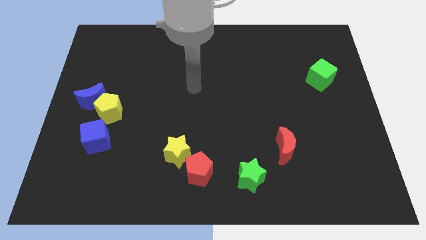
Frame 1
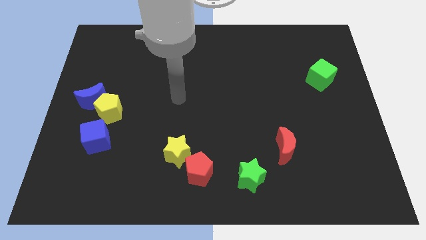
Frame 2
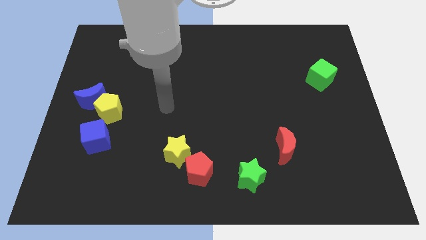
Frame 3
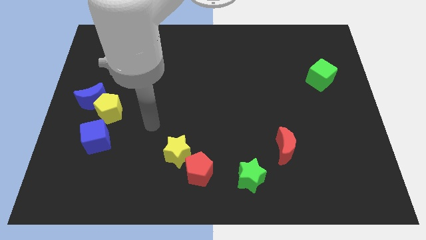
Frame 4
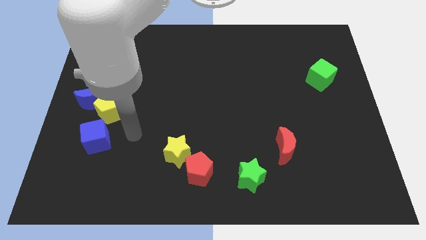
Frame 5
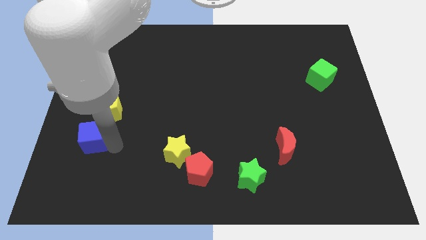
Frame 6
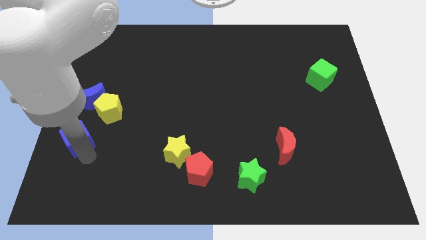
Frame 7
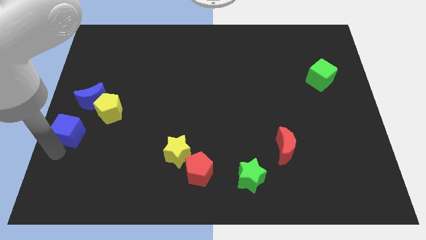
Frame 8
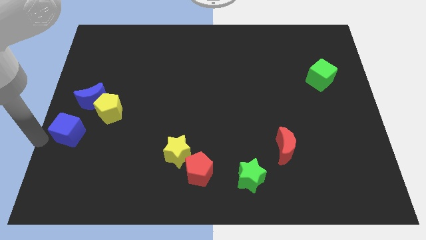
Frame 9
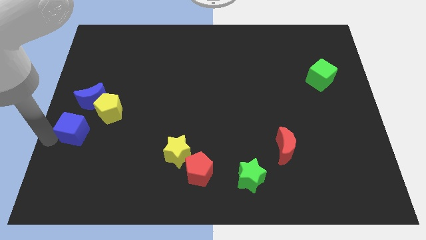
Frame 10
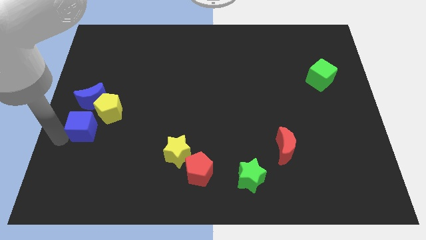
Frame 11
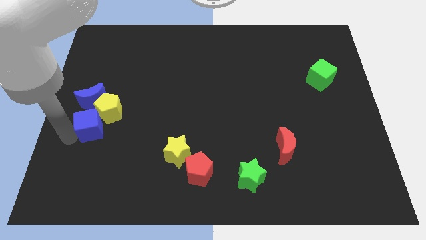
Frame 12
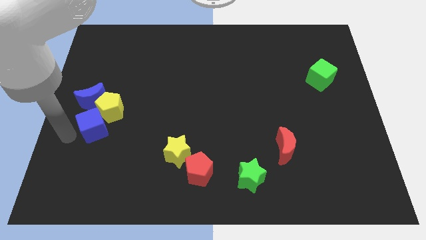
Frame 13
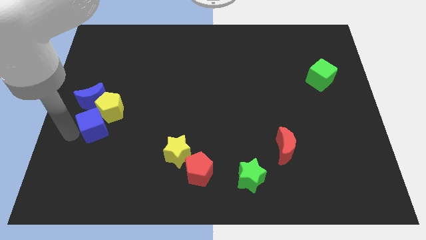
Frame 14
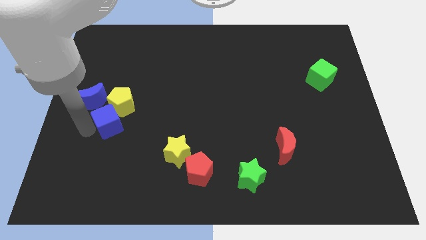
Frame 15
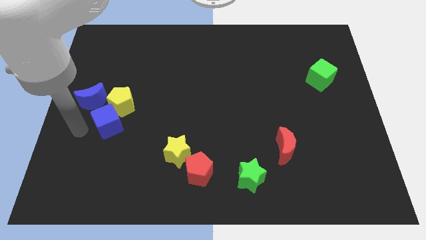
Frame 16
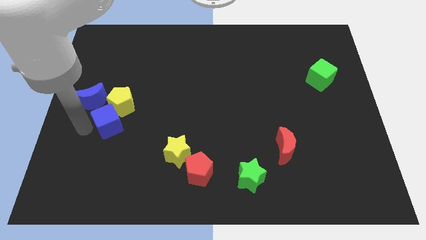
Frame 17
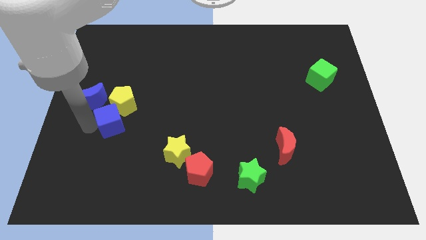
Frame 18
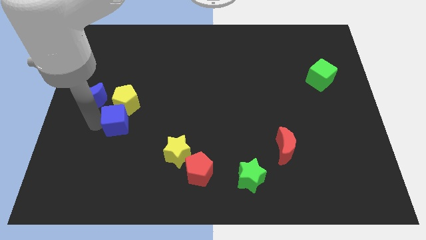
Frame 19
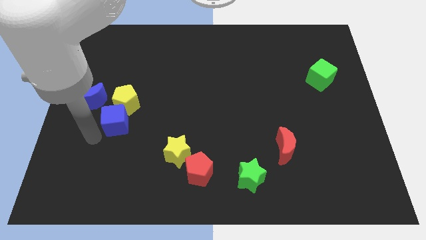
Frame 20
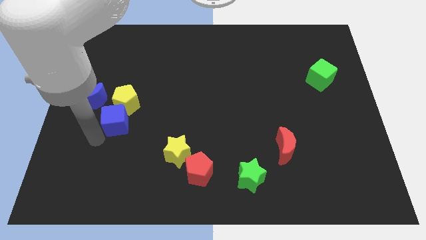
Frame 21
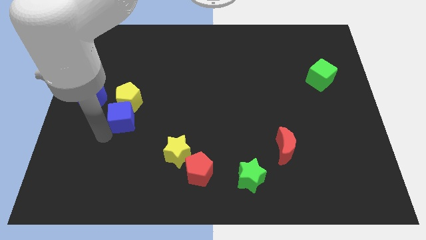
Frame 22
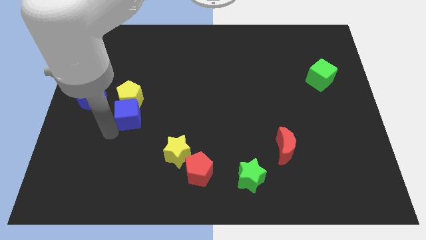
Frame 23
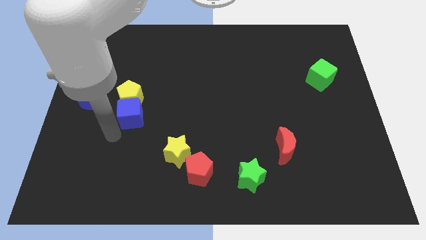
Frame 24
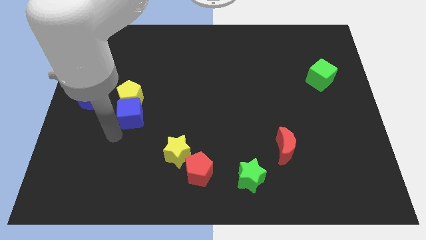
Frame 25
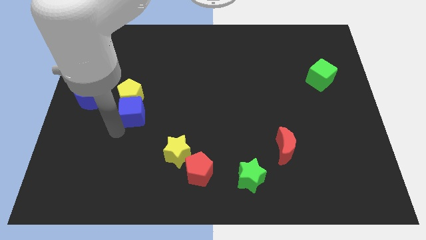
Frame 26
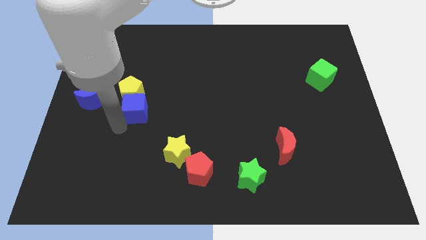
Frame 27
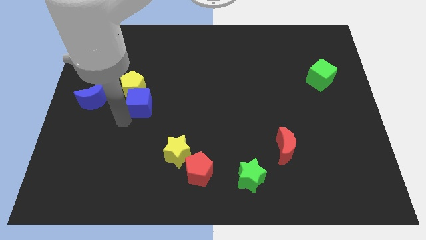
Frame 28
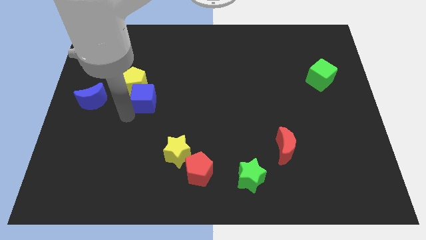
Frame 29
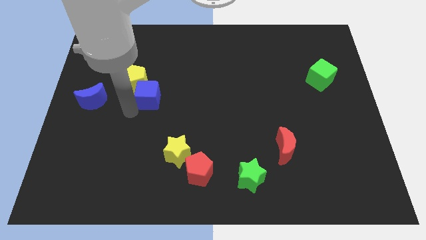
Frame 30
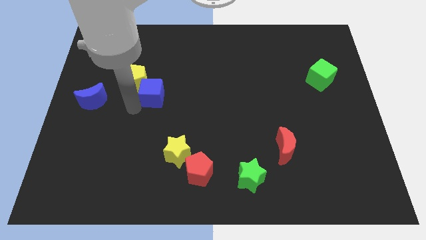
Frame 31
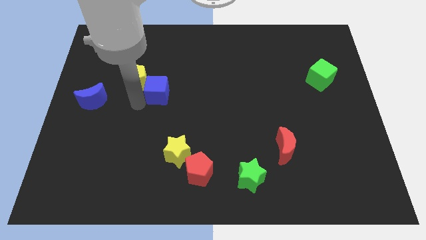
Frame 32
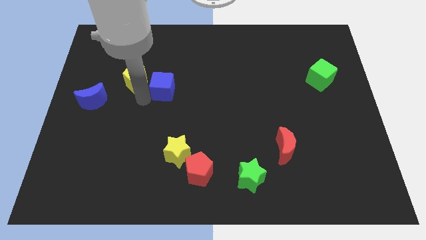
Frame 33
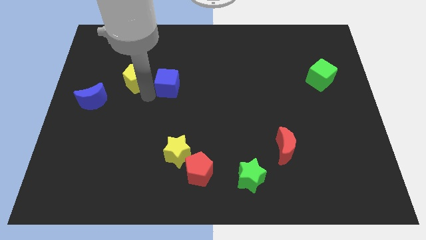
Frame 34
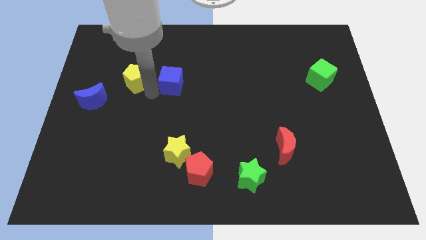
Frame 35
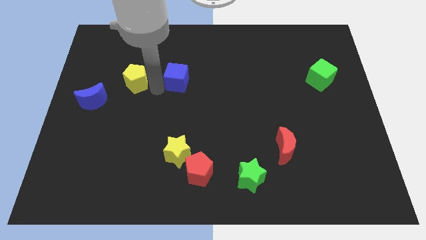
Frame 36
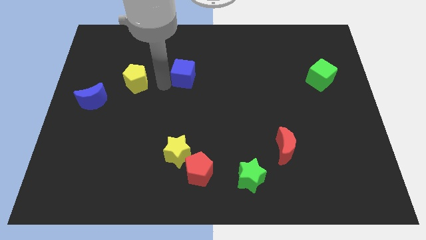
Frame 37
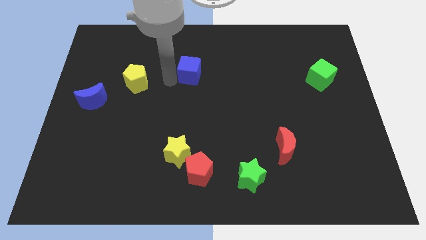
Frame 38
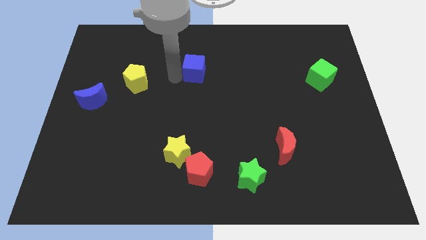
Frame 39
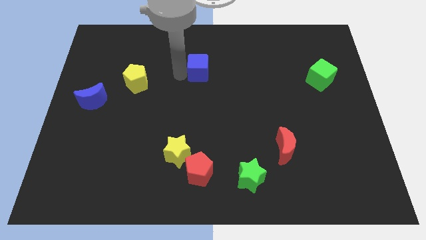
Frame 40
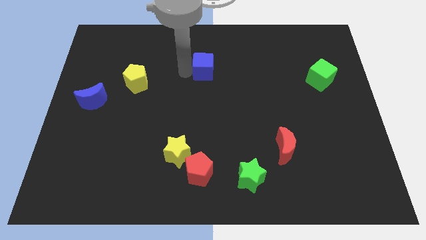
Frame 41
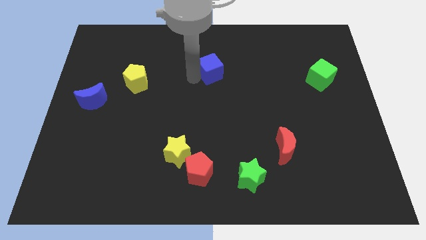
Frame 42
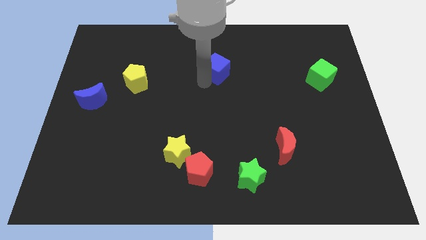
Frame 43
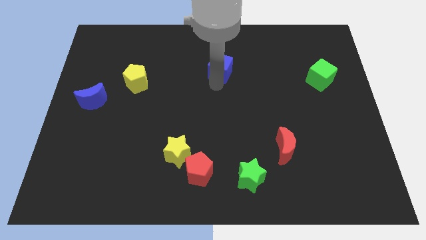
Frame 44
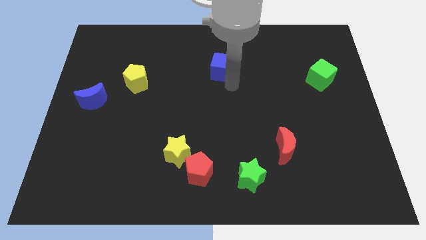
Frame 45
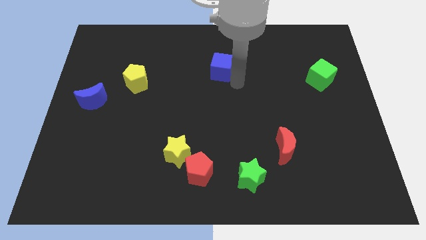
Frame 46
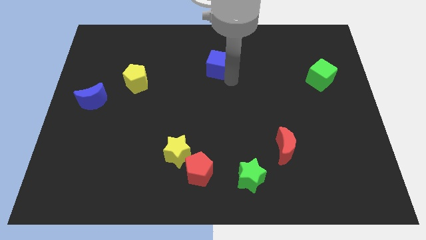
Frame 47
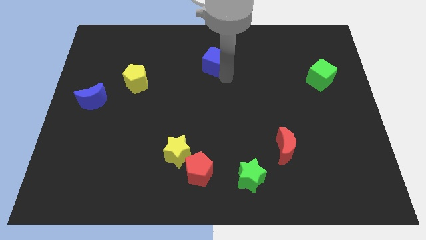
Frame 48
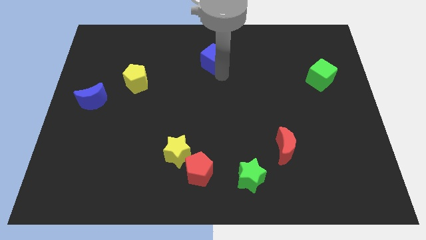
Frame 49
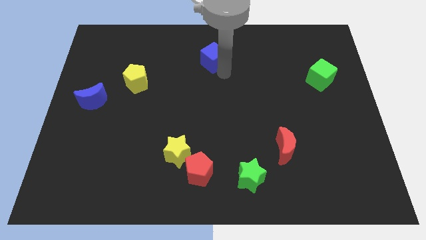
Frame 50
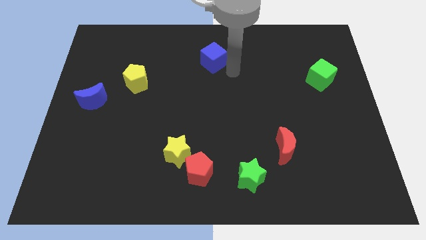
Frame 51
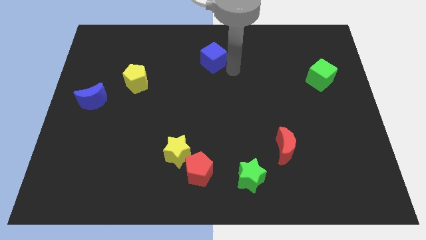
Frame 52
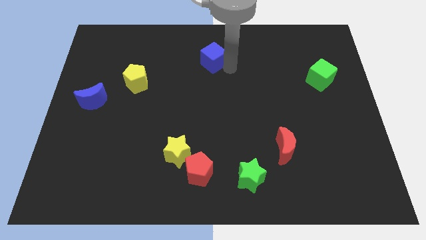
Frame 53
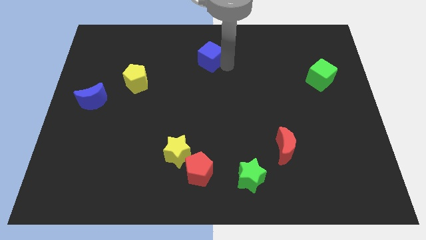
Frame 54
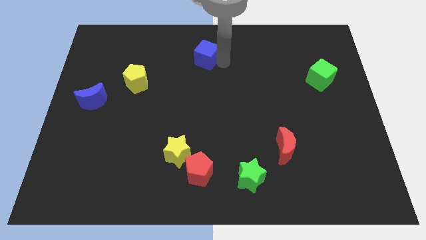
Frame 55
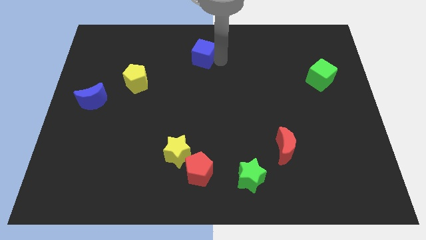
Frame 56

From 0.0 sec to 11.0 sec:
push the blue cube to the towards your base

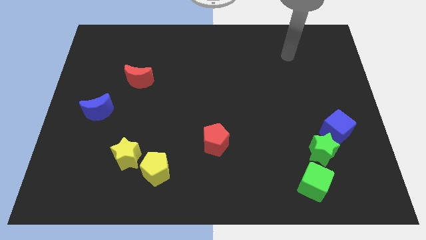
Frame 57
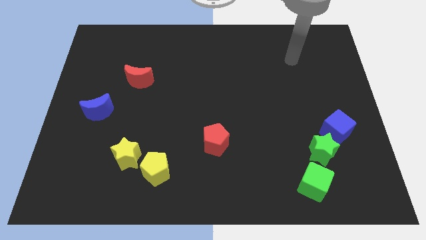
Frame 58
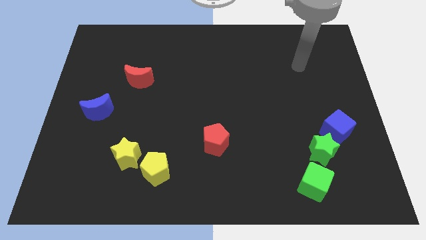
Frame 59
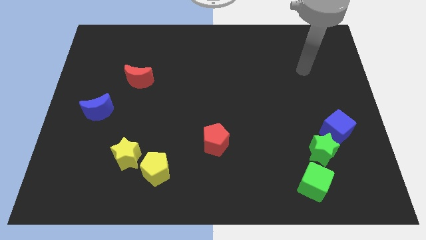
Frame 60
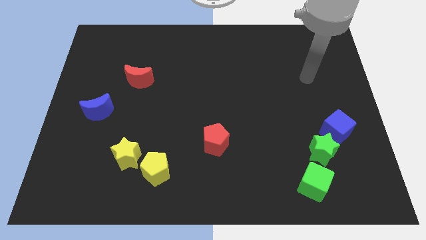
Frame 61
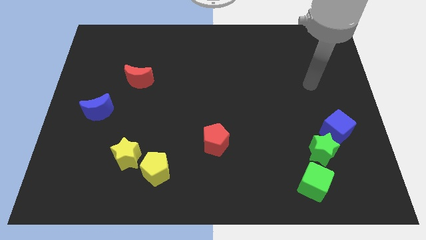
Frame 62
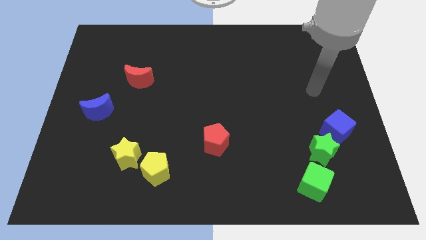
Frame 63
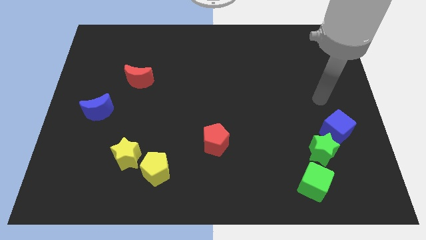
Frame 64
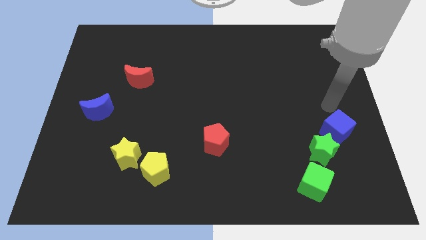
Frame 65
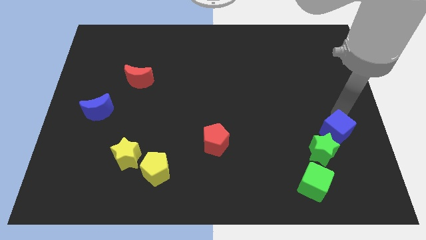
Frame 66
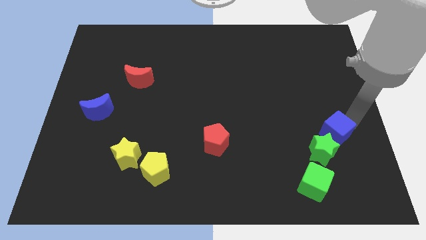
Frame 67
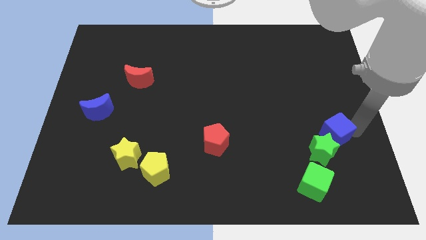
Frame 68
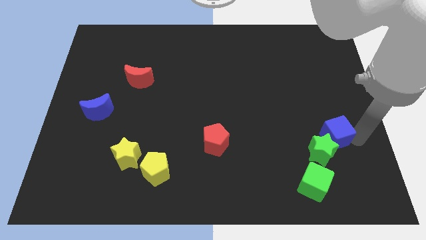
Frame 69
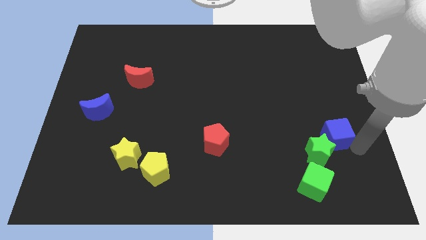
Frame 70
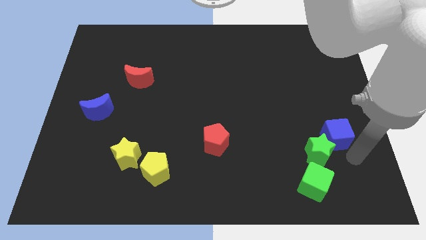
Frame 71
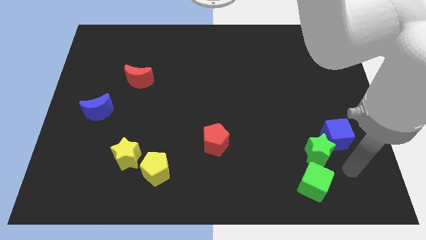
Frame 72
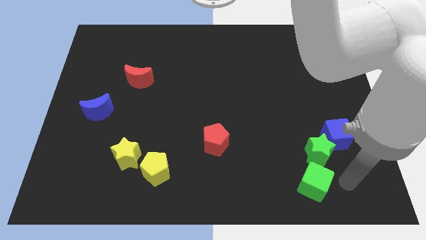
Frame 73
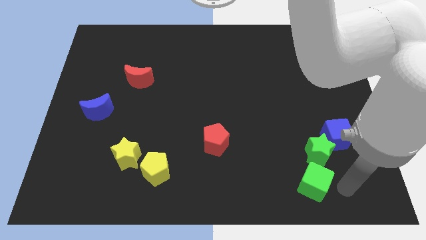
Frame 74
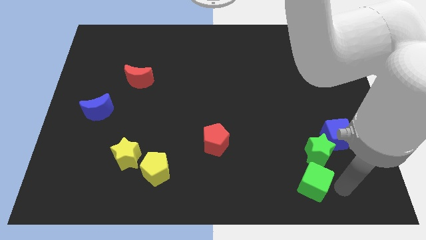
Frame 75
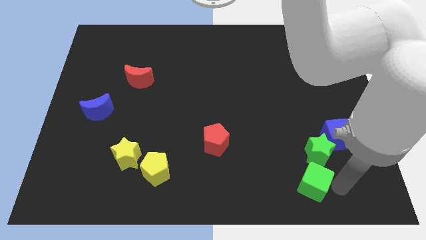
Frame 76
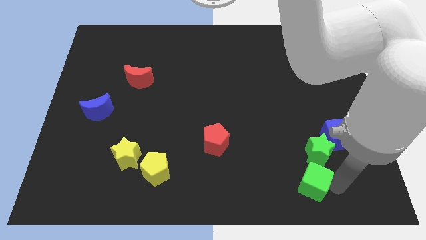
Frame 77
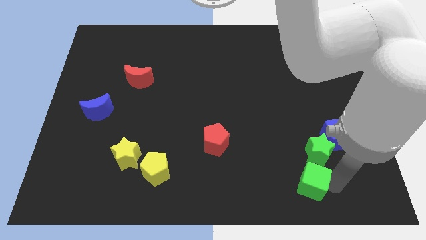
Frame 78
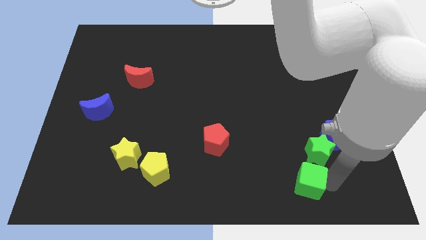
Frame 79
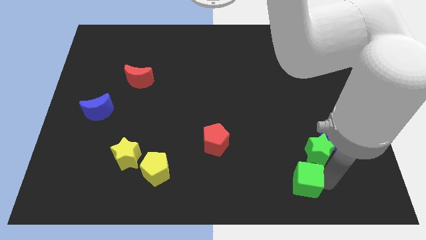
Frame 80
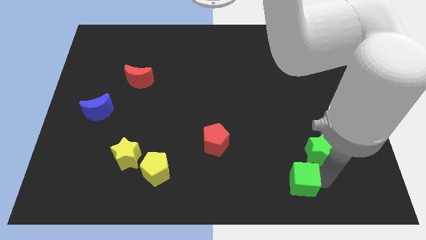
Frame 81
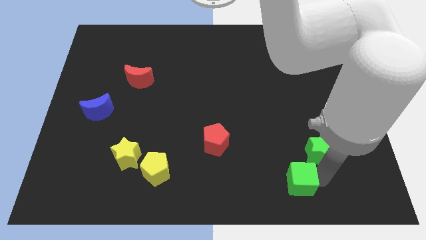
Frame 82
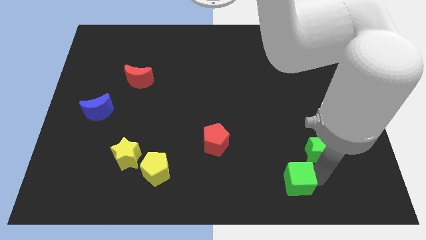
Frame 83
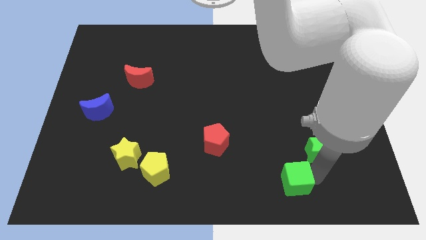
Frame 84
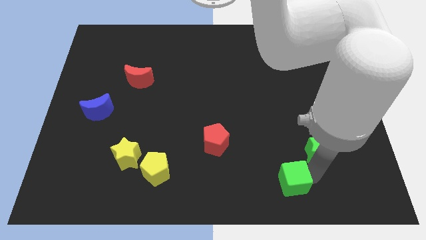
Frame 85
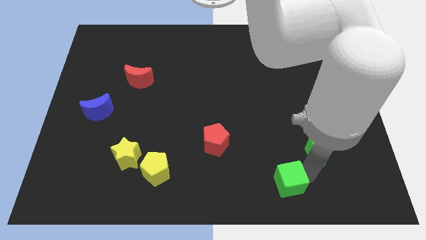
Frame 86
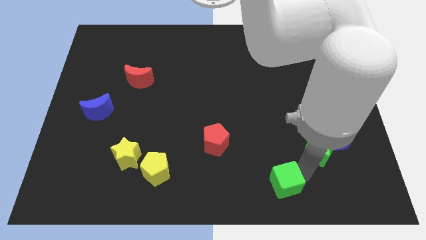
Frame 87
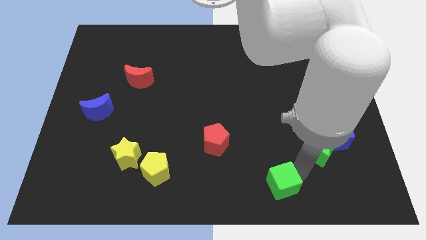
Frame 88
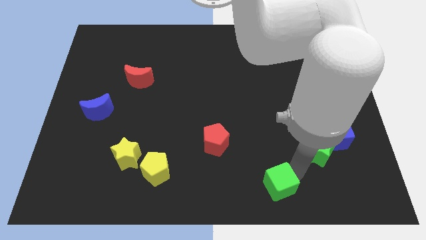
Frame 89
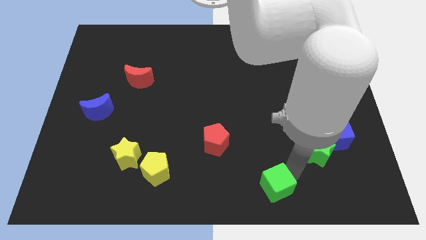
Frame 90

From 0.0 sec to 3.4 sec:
put the green cube to the bottom
